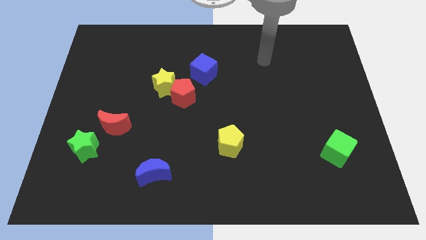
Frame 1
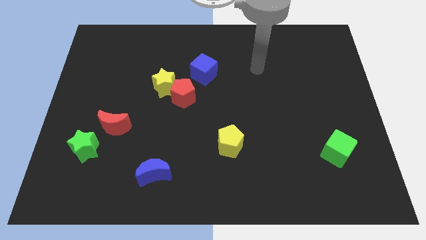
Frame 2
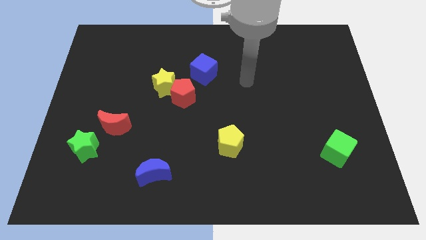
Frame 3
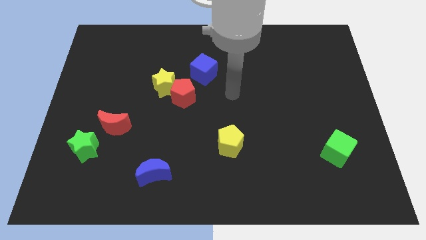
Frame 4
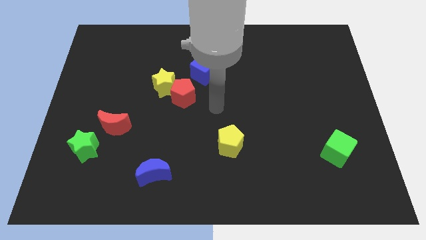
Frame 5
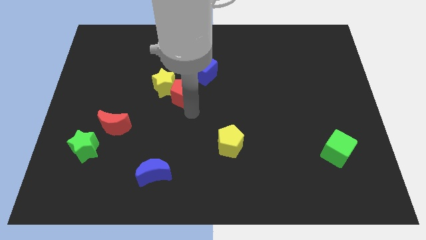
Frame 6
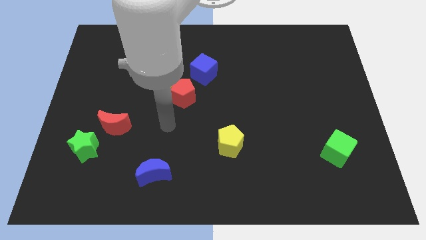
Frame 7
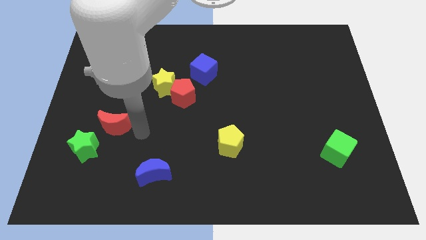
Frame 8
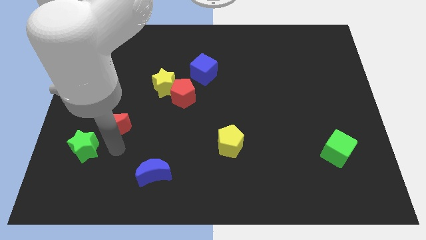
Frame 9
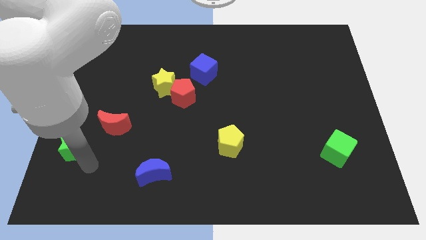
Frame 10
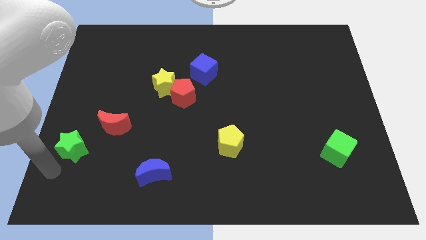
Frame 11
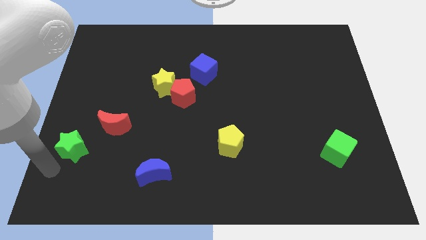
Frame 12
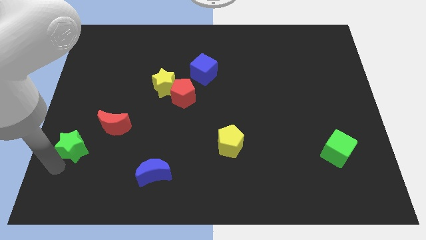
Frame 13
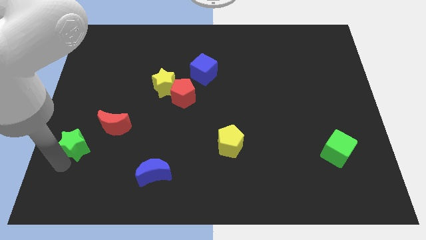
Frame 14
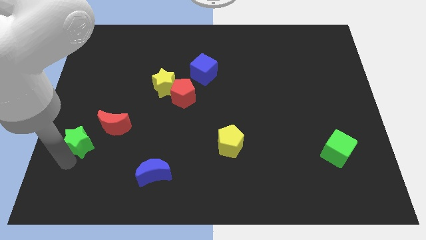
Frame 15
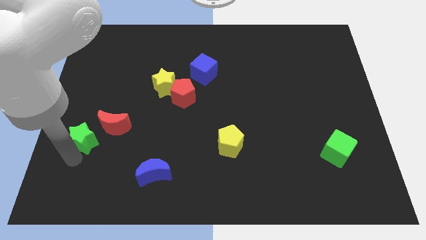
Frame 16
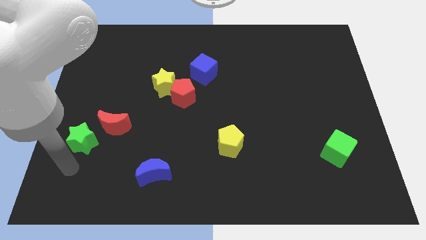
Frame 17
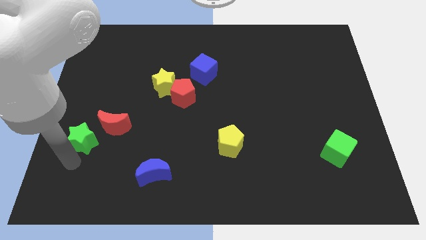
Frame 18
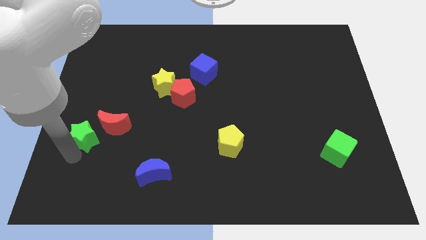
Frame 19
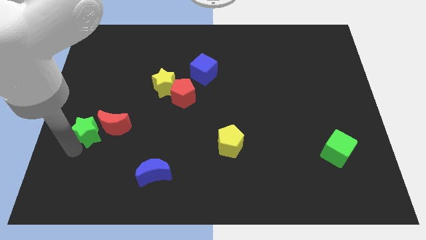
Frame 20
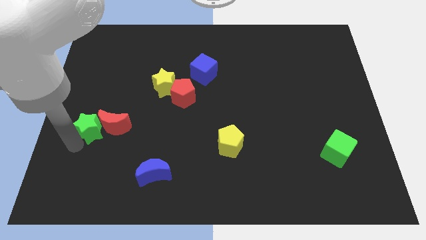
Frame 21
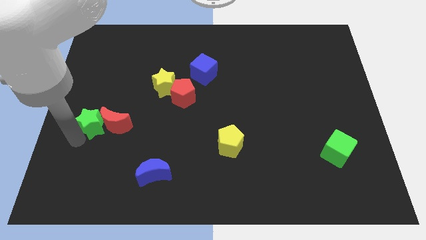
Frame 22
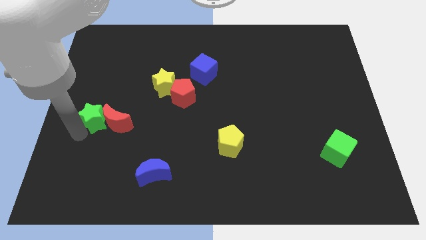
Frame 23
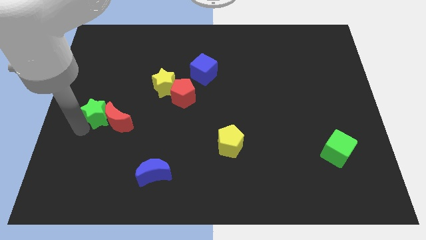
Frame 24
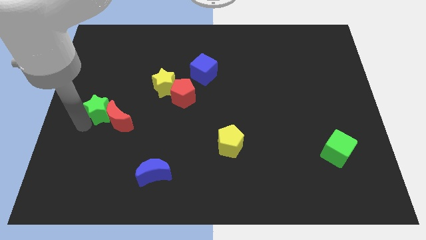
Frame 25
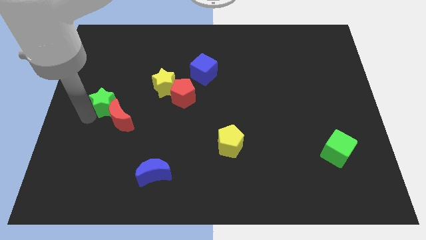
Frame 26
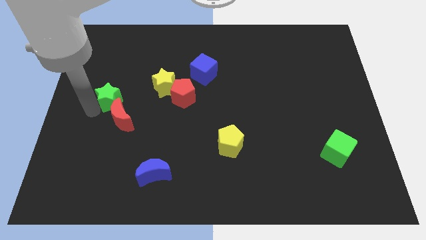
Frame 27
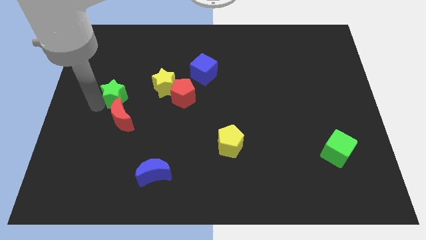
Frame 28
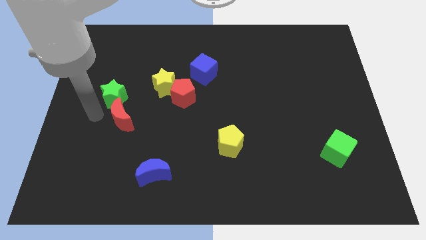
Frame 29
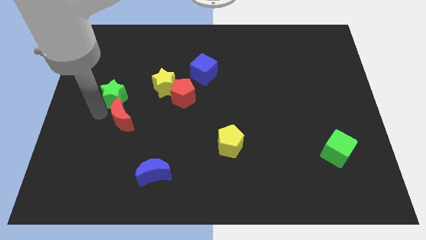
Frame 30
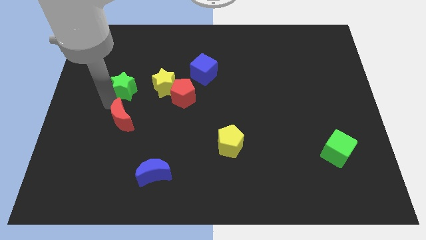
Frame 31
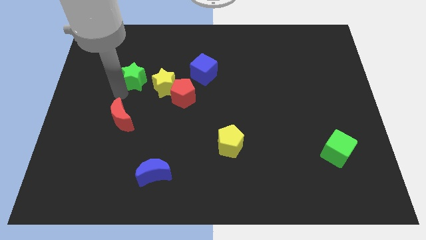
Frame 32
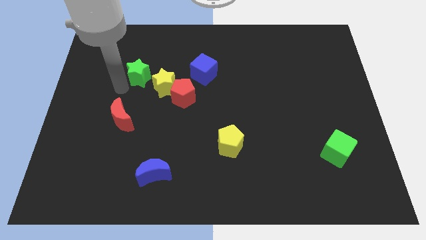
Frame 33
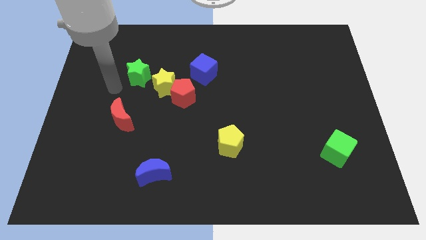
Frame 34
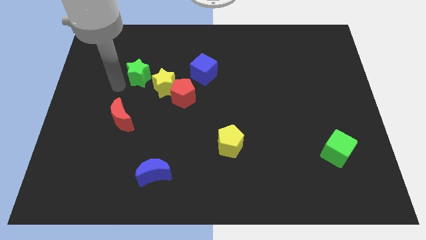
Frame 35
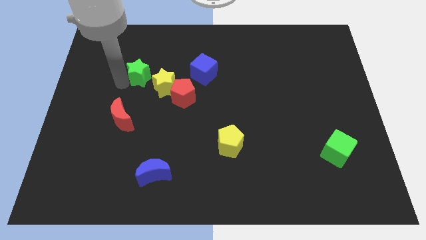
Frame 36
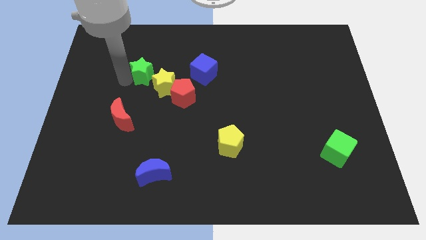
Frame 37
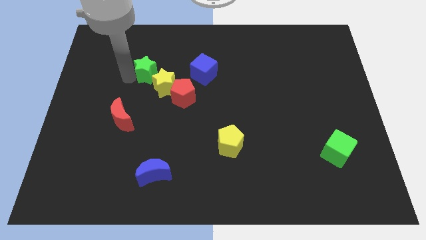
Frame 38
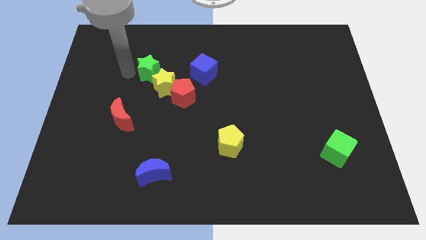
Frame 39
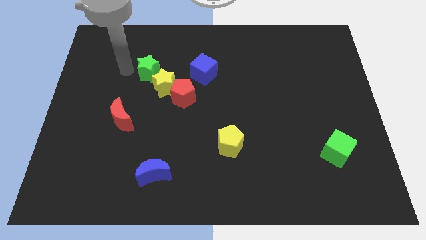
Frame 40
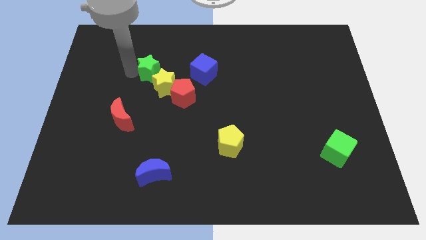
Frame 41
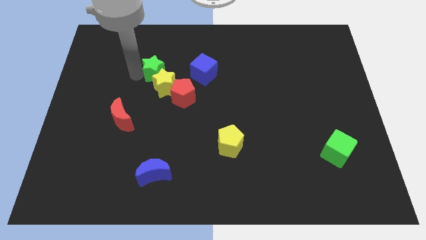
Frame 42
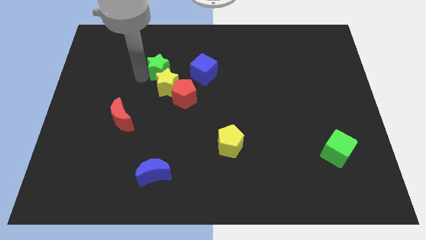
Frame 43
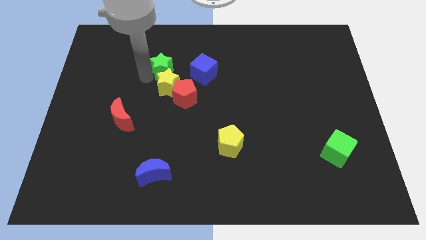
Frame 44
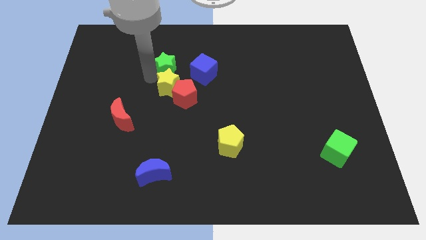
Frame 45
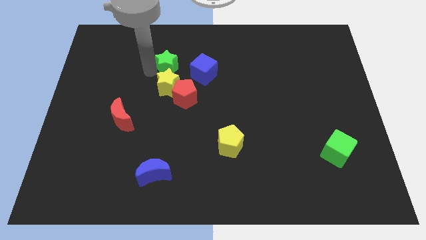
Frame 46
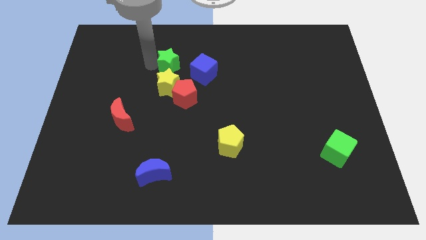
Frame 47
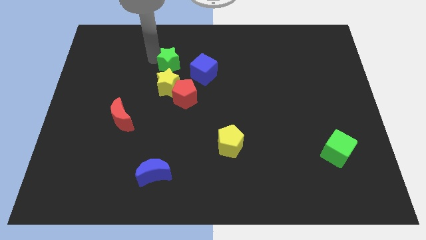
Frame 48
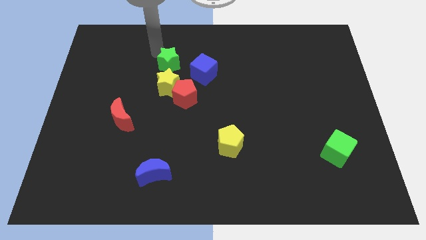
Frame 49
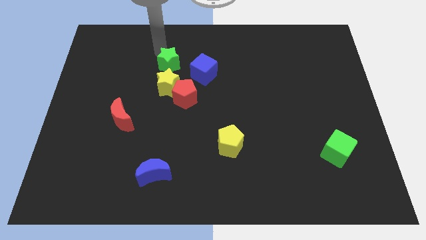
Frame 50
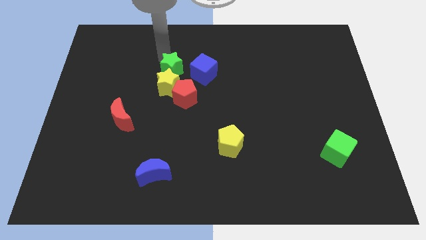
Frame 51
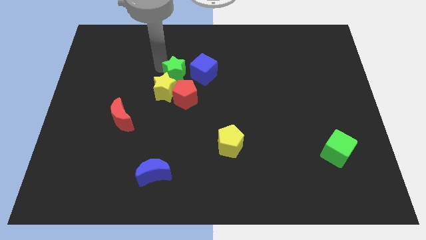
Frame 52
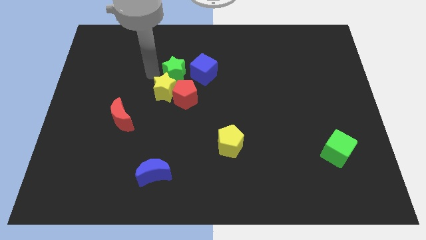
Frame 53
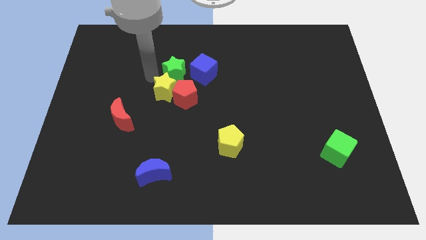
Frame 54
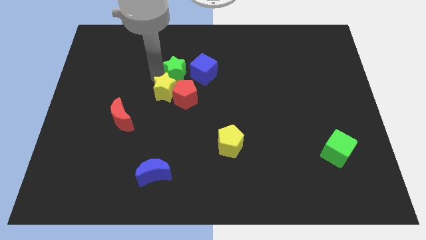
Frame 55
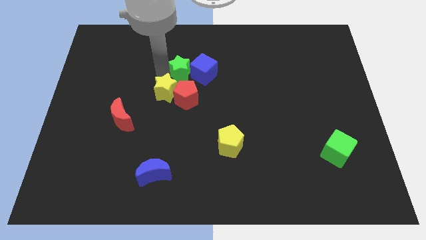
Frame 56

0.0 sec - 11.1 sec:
push the green star next to the blue cube

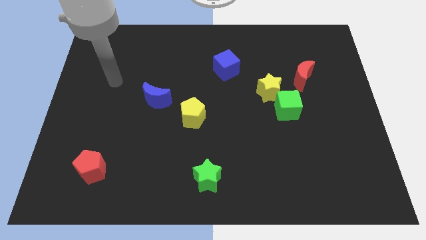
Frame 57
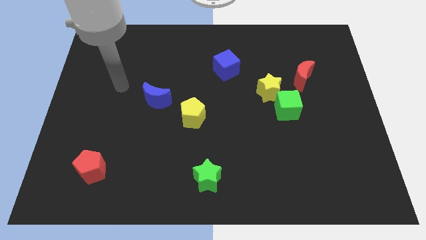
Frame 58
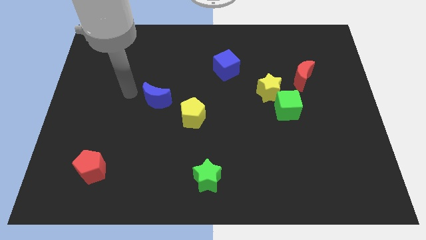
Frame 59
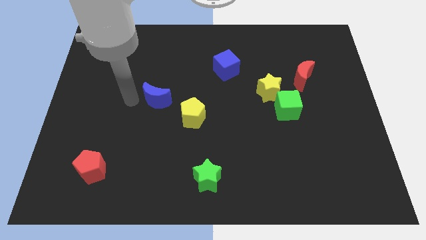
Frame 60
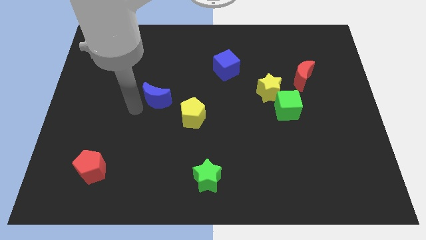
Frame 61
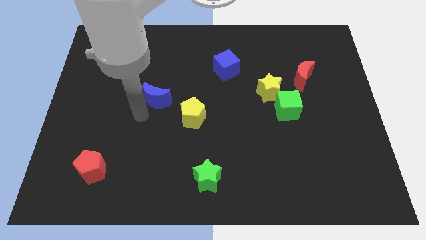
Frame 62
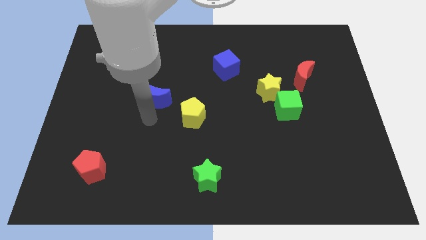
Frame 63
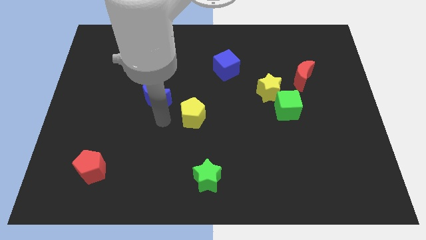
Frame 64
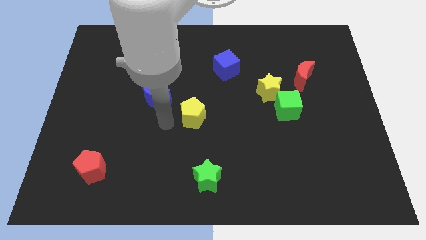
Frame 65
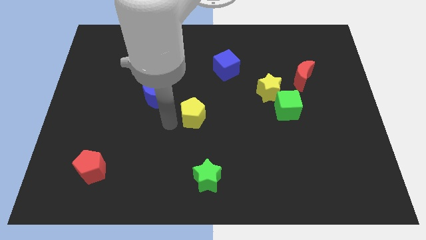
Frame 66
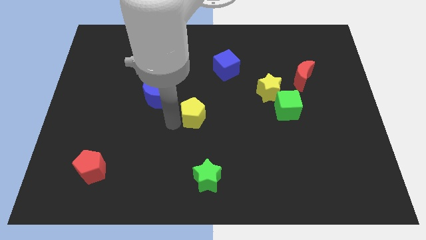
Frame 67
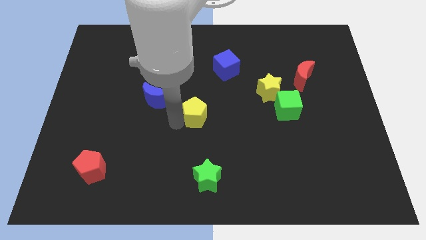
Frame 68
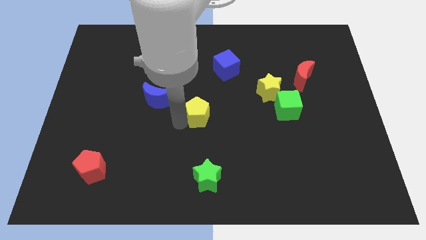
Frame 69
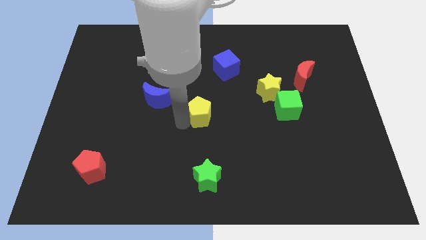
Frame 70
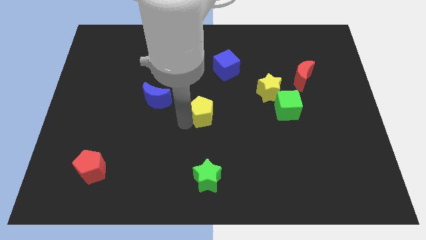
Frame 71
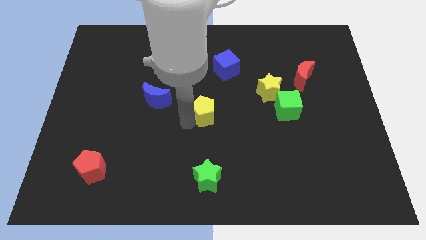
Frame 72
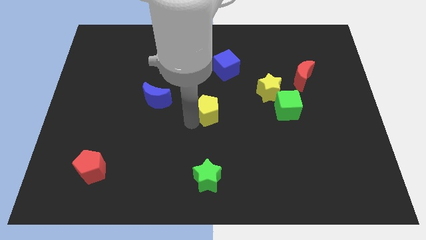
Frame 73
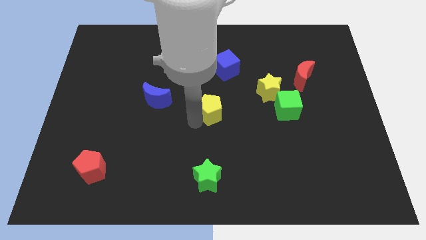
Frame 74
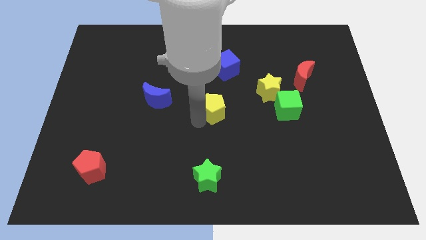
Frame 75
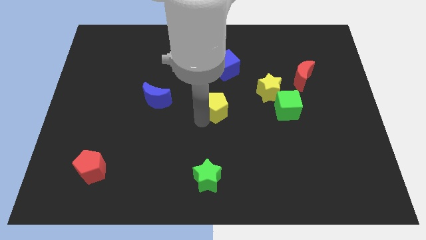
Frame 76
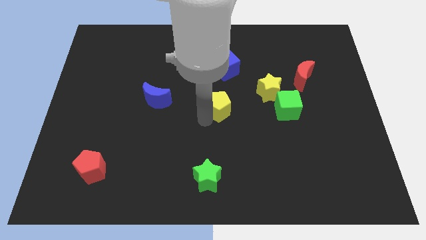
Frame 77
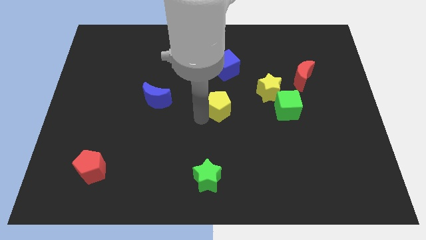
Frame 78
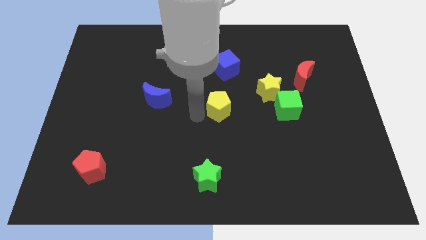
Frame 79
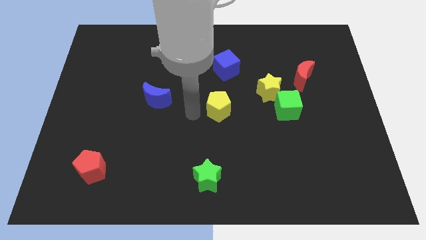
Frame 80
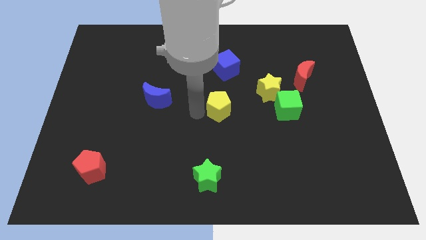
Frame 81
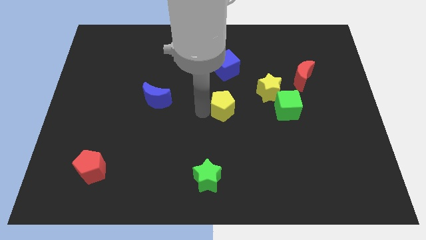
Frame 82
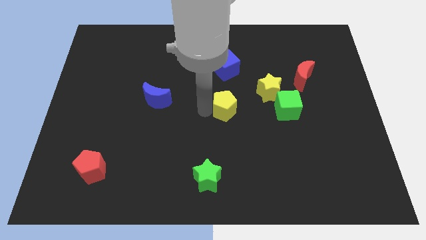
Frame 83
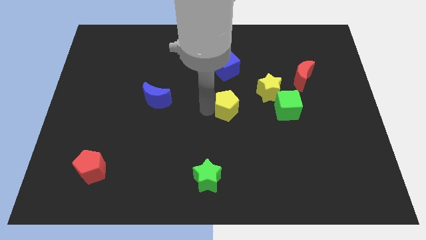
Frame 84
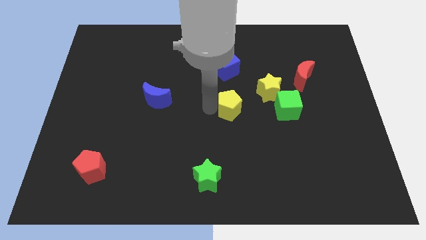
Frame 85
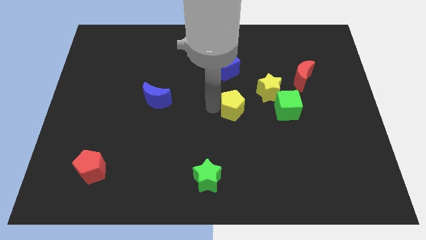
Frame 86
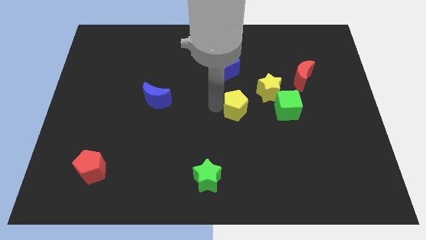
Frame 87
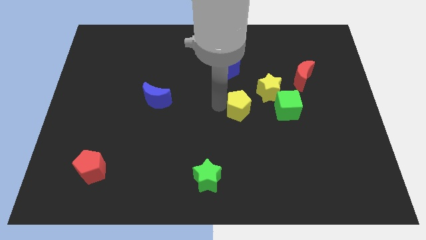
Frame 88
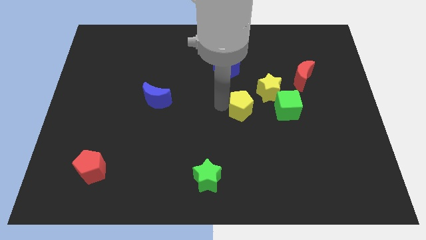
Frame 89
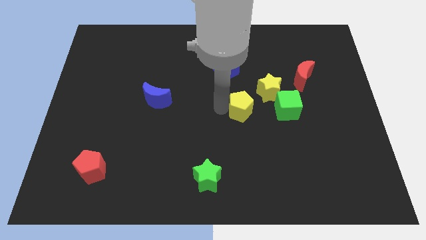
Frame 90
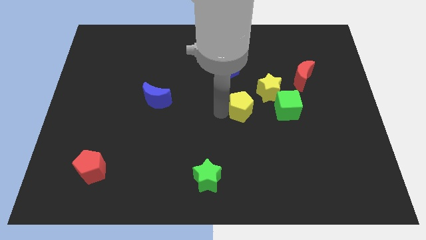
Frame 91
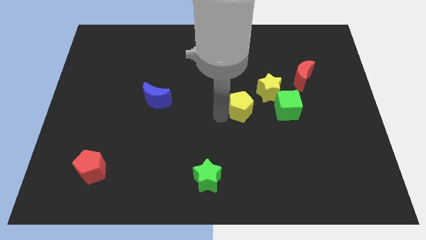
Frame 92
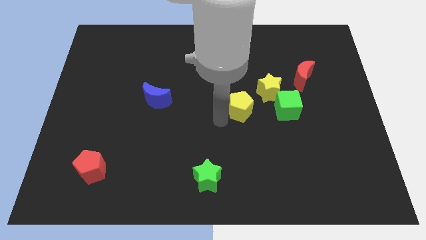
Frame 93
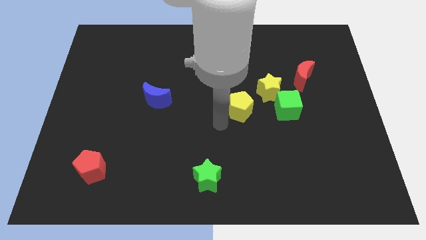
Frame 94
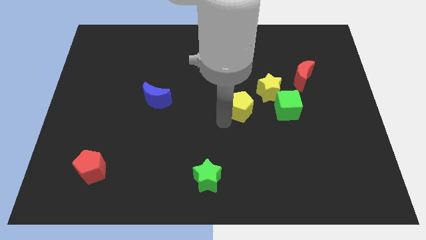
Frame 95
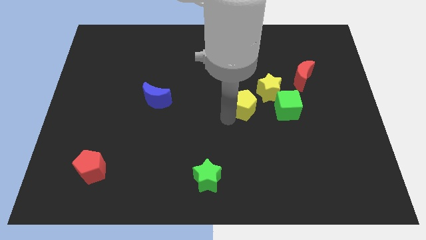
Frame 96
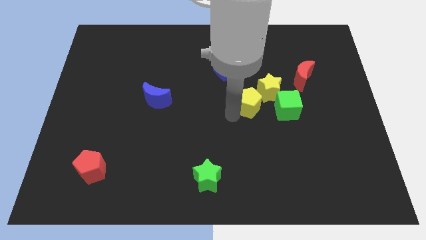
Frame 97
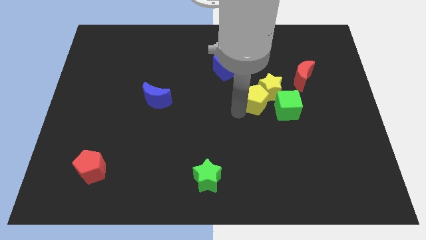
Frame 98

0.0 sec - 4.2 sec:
put the yellow pentagon close to the yellow star
